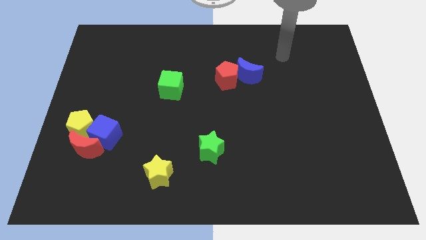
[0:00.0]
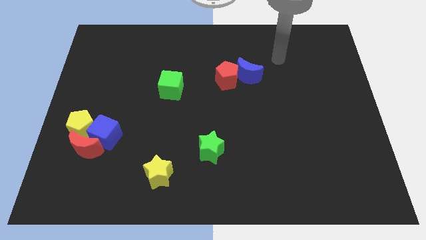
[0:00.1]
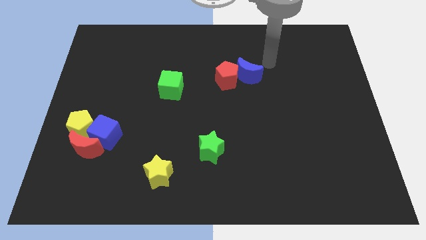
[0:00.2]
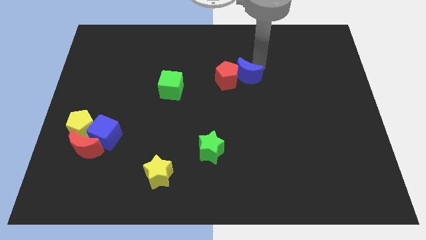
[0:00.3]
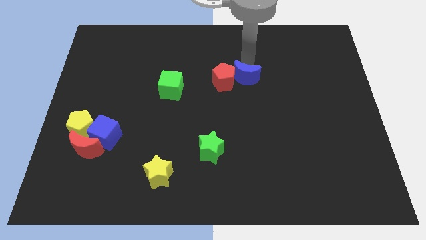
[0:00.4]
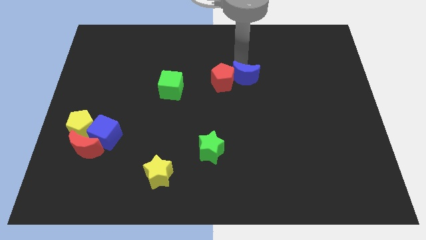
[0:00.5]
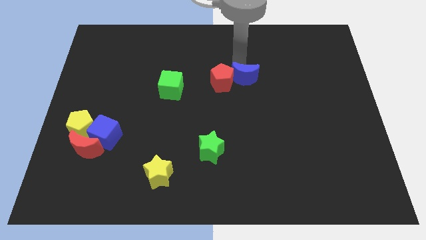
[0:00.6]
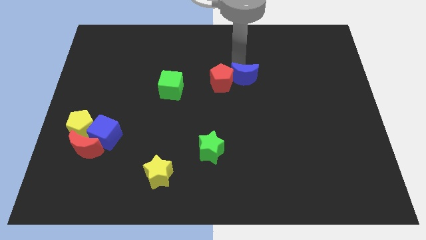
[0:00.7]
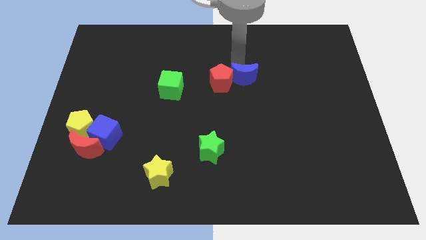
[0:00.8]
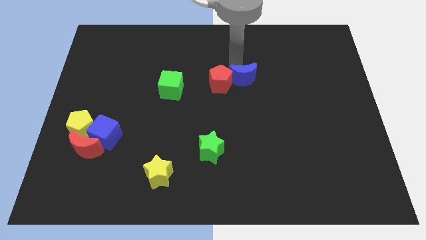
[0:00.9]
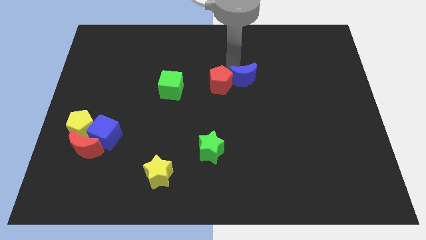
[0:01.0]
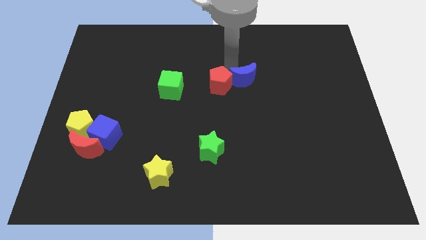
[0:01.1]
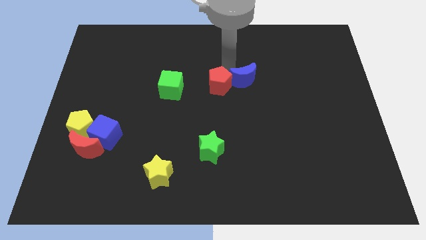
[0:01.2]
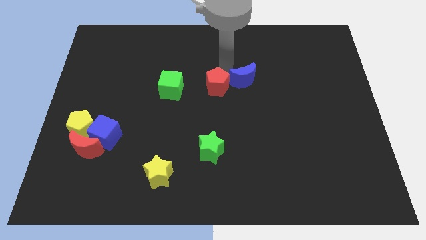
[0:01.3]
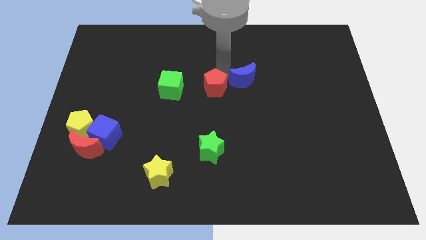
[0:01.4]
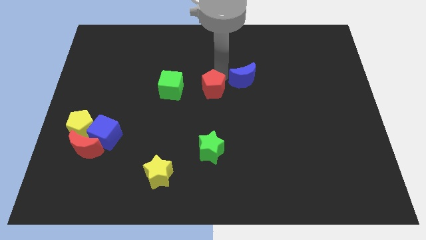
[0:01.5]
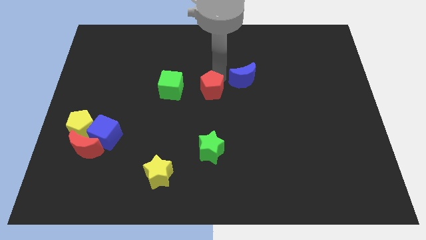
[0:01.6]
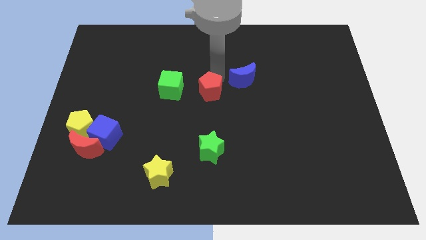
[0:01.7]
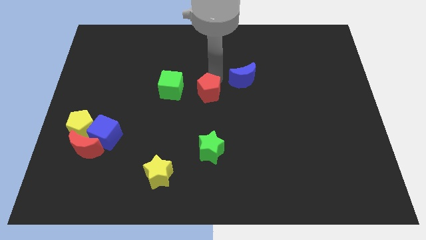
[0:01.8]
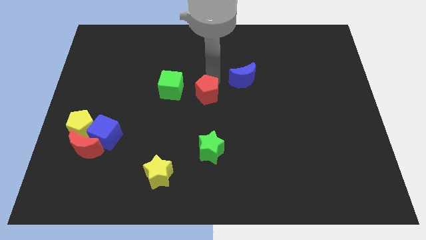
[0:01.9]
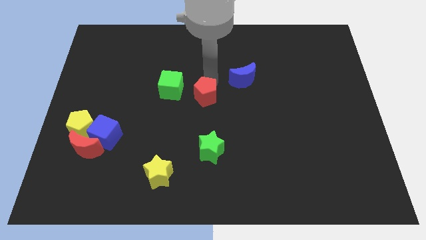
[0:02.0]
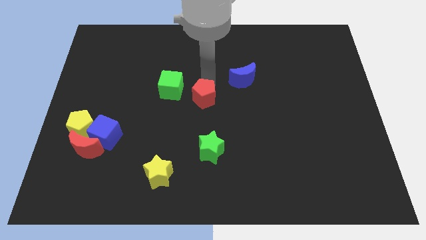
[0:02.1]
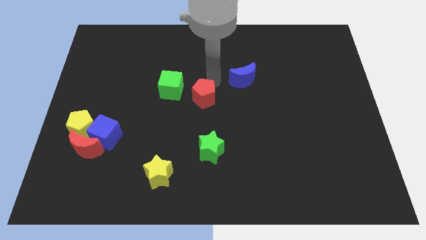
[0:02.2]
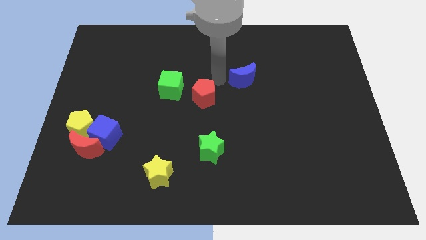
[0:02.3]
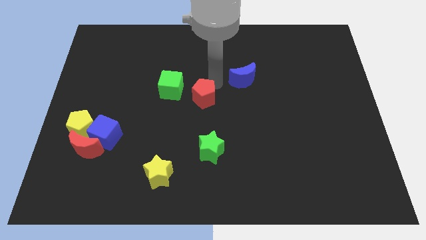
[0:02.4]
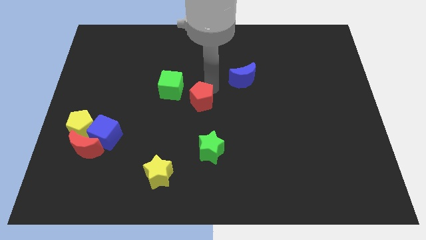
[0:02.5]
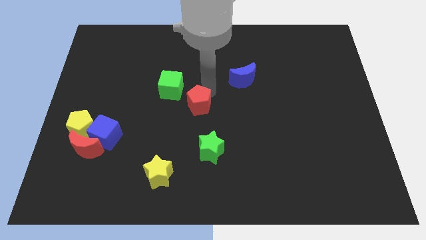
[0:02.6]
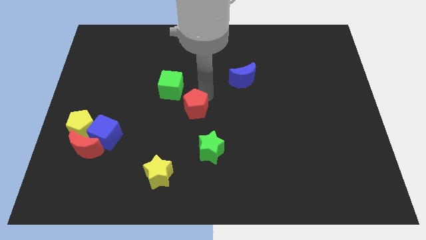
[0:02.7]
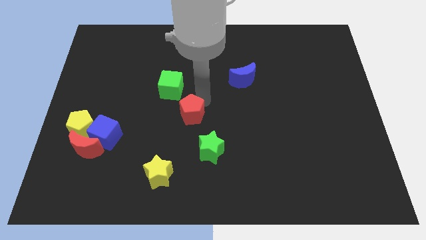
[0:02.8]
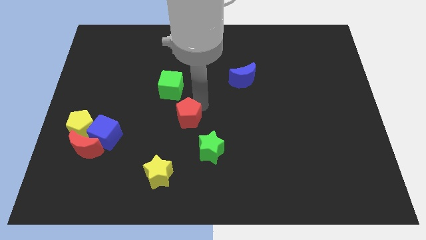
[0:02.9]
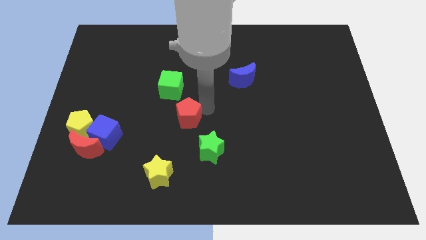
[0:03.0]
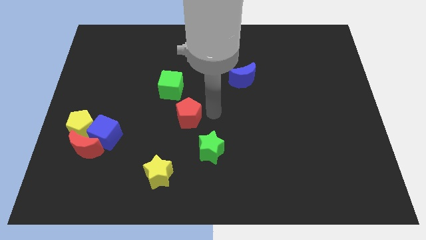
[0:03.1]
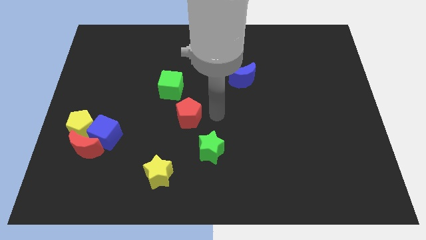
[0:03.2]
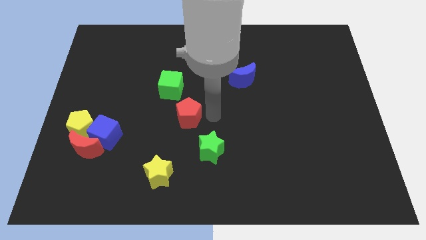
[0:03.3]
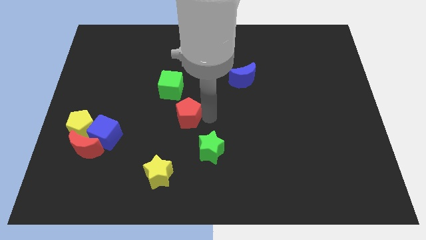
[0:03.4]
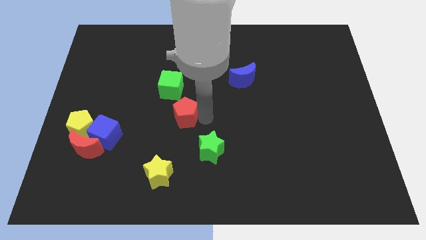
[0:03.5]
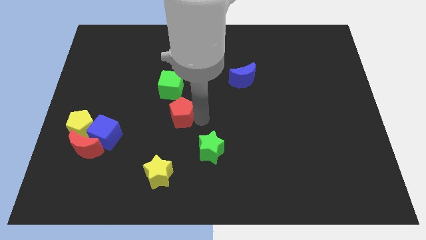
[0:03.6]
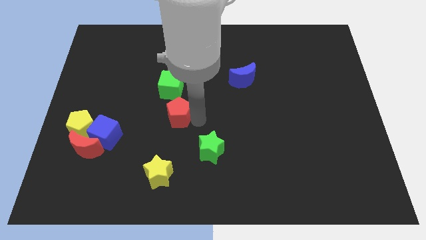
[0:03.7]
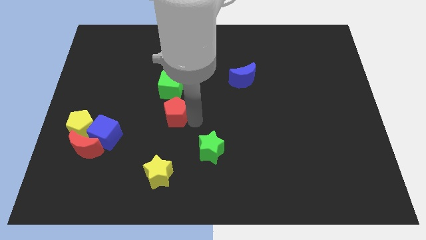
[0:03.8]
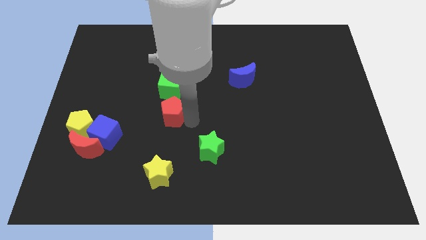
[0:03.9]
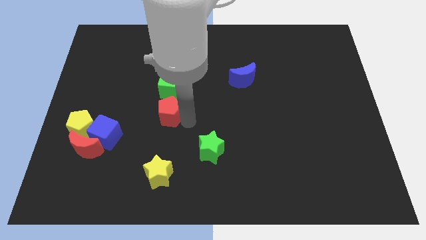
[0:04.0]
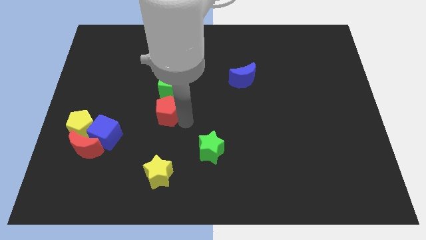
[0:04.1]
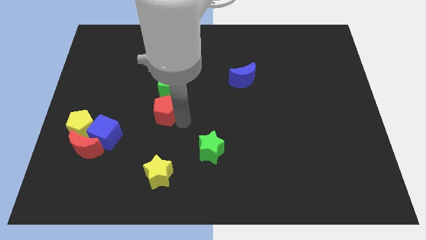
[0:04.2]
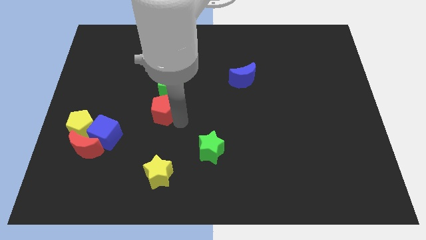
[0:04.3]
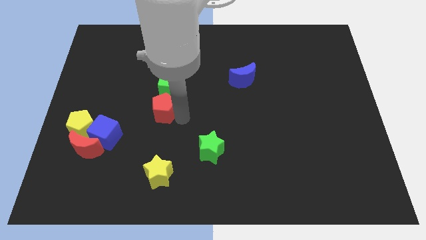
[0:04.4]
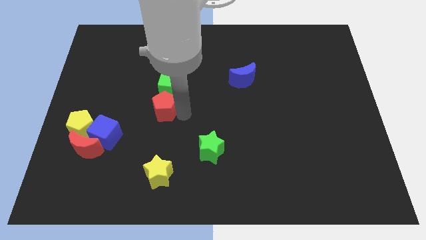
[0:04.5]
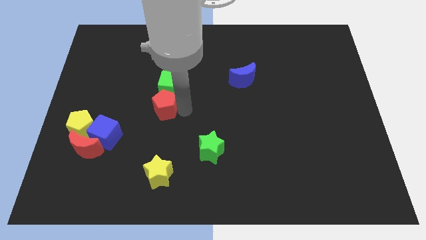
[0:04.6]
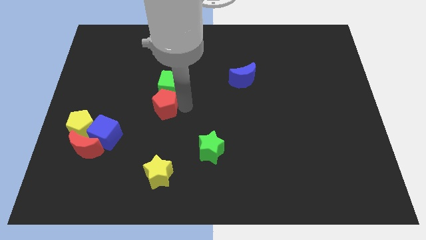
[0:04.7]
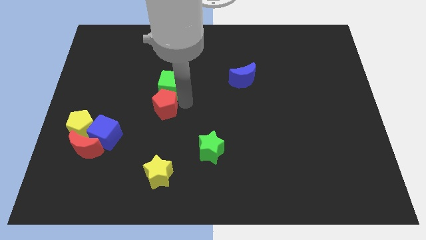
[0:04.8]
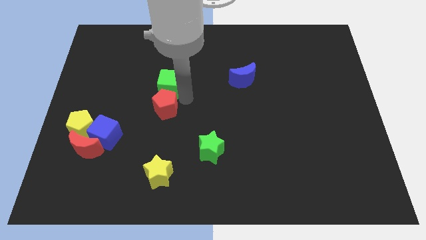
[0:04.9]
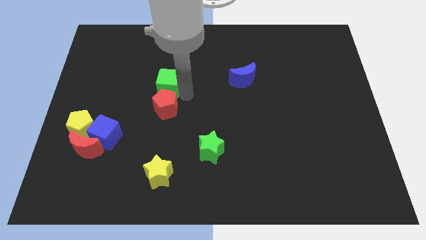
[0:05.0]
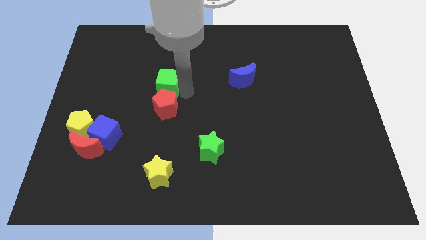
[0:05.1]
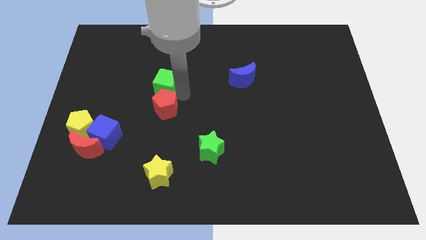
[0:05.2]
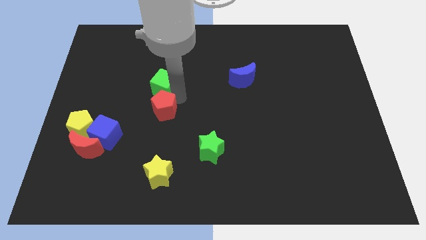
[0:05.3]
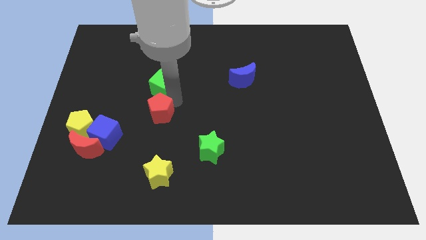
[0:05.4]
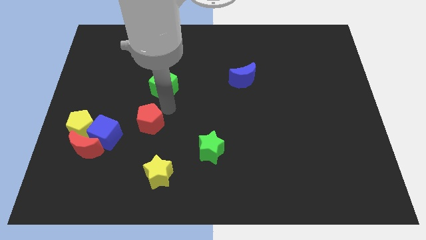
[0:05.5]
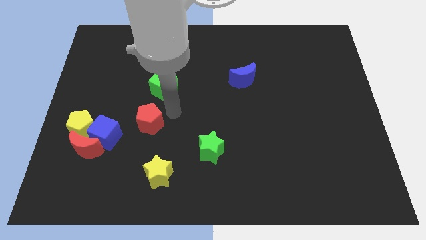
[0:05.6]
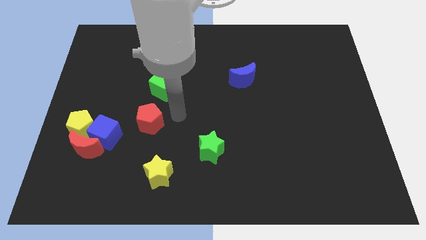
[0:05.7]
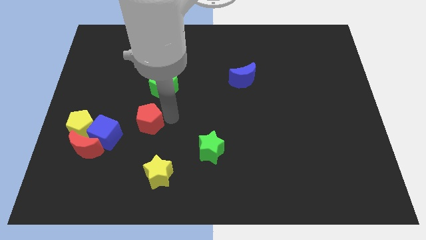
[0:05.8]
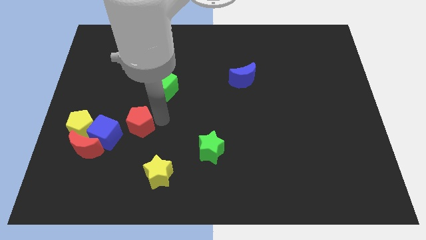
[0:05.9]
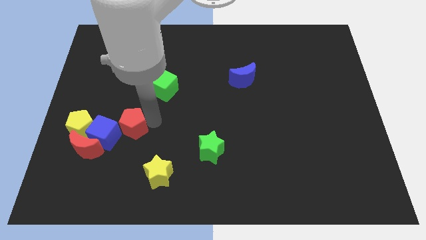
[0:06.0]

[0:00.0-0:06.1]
push the red pentagon to the top right side of the red moon

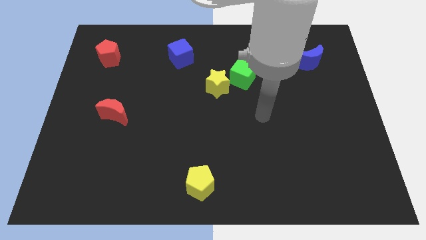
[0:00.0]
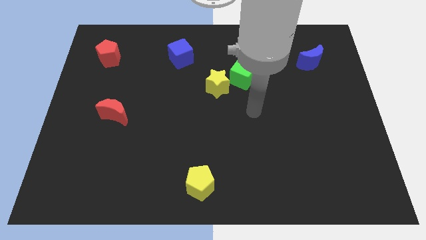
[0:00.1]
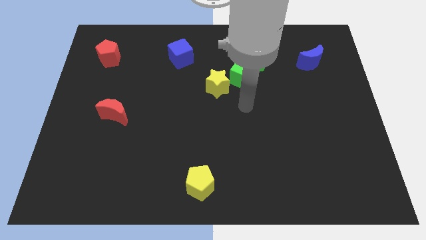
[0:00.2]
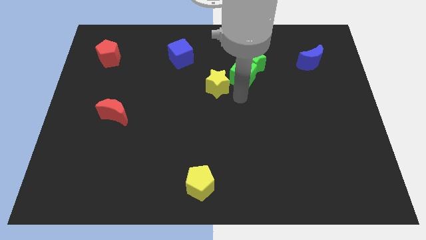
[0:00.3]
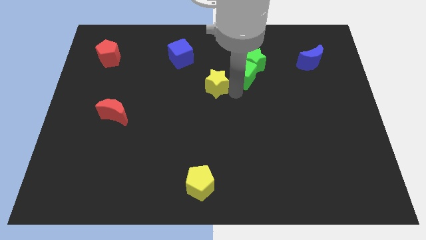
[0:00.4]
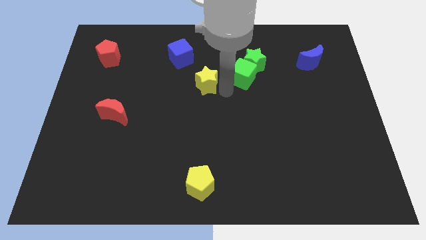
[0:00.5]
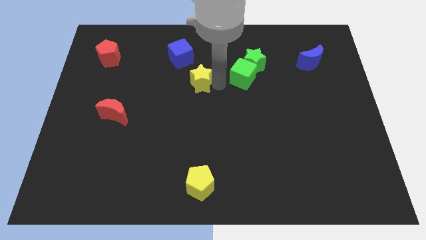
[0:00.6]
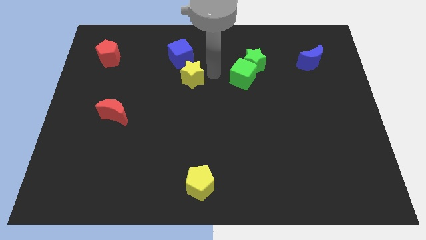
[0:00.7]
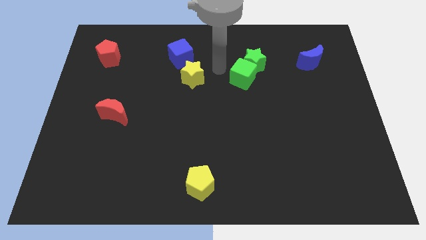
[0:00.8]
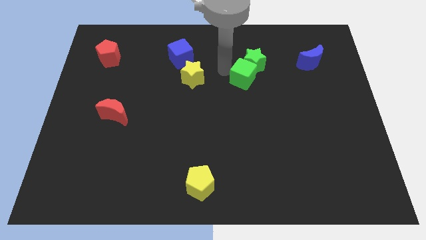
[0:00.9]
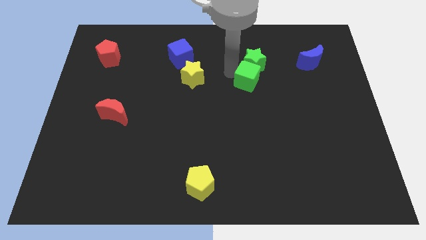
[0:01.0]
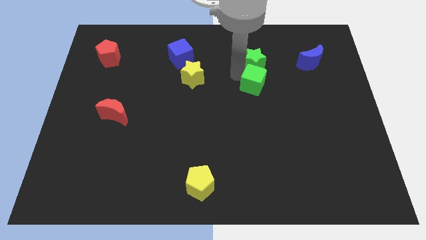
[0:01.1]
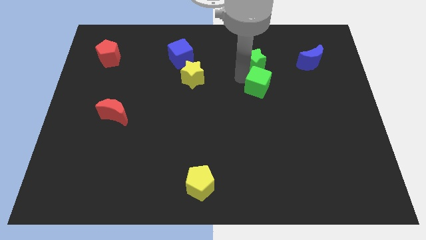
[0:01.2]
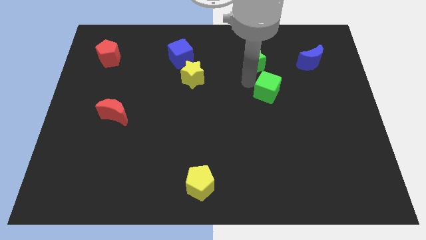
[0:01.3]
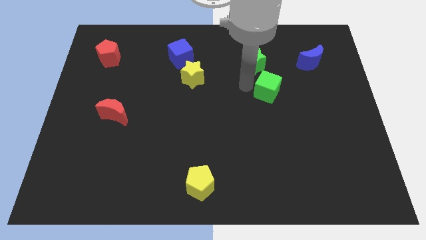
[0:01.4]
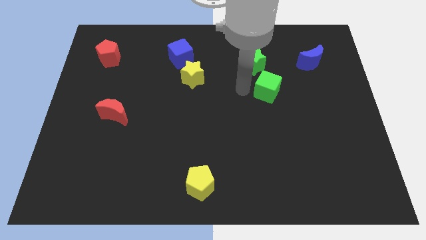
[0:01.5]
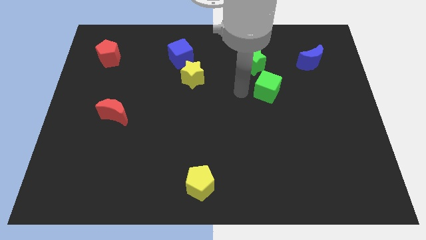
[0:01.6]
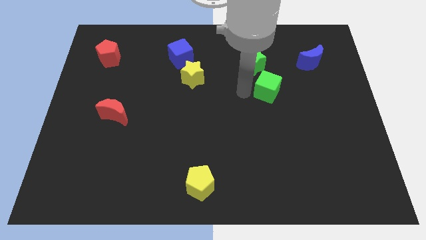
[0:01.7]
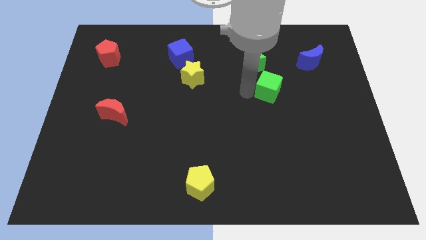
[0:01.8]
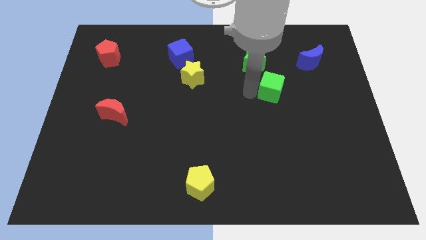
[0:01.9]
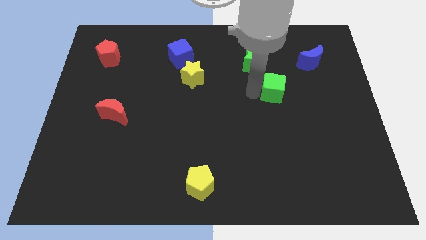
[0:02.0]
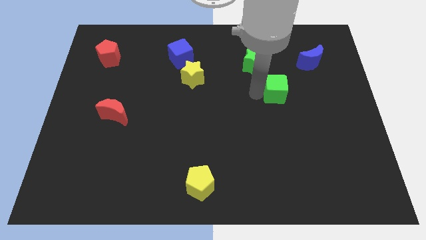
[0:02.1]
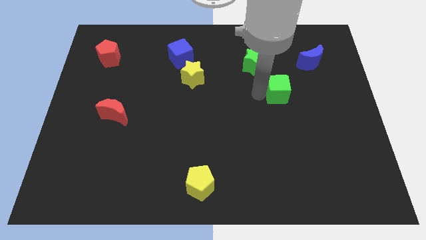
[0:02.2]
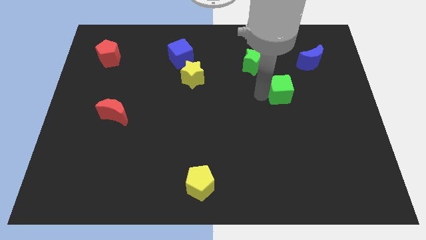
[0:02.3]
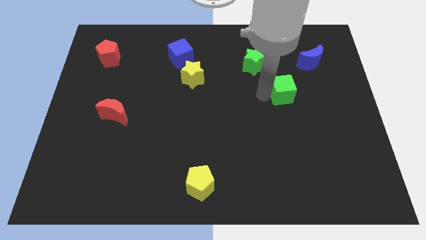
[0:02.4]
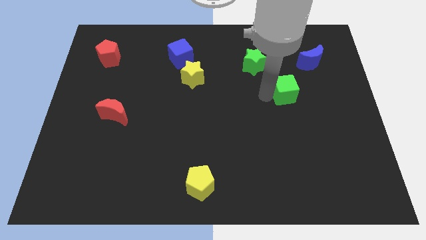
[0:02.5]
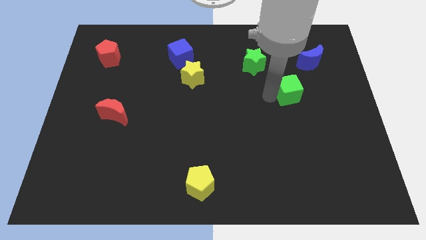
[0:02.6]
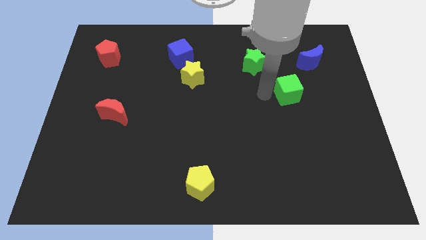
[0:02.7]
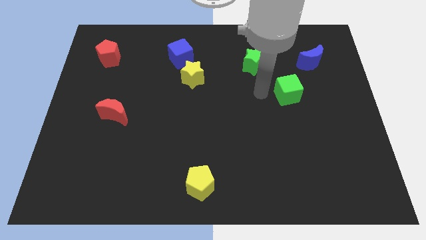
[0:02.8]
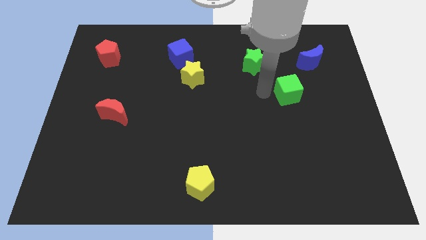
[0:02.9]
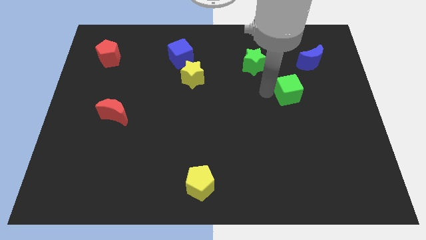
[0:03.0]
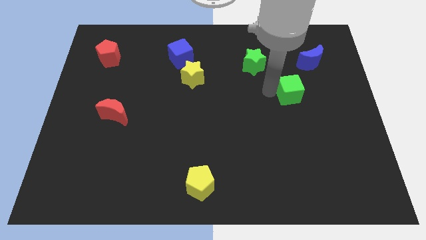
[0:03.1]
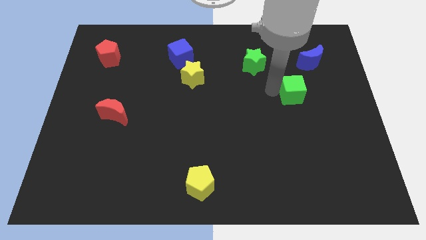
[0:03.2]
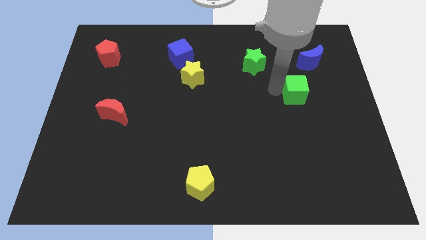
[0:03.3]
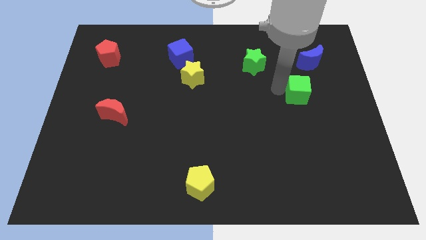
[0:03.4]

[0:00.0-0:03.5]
put the green cube to the bottom of the blue moon
